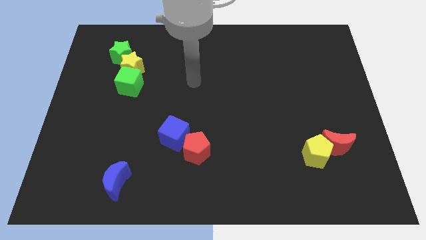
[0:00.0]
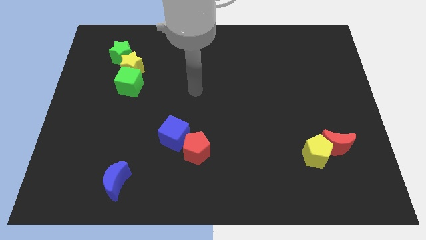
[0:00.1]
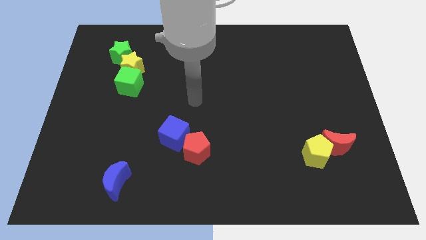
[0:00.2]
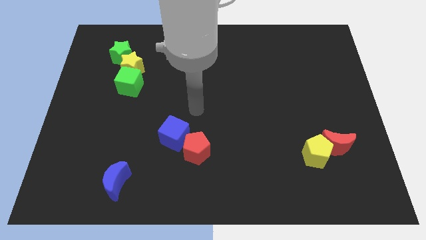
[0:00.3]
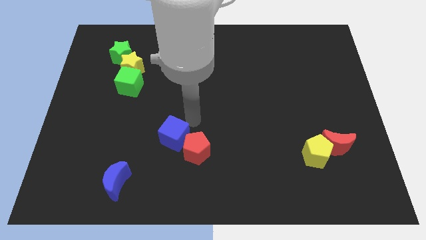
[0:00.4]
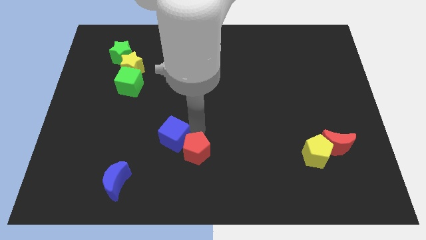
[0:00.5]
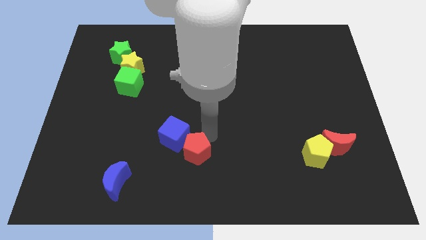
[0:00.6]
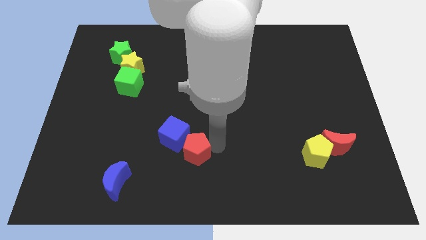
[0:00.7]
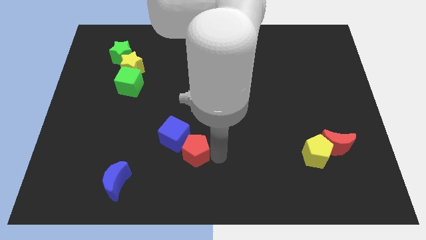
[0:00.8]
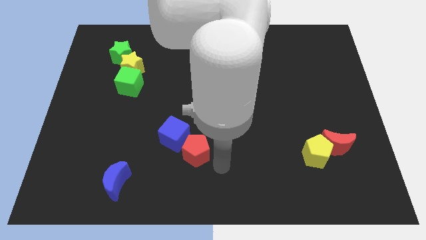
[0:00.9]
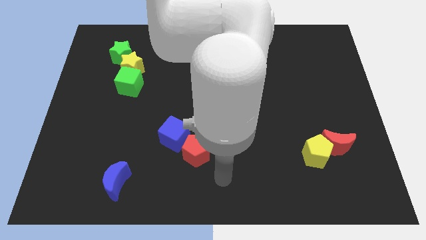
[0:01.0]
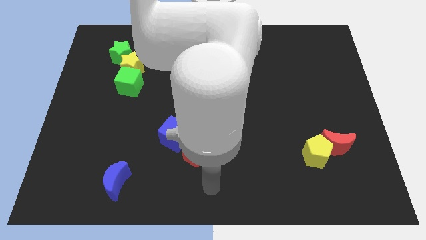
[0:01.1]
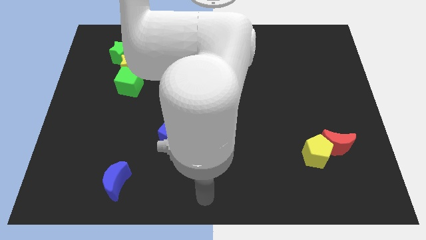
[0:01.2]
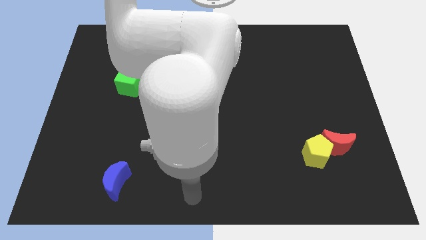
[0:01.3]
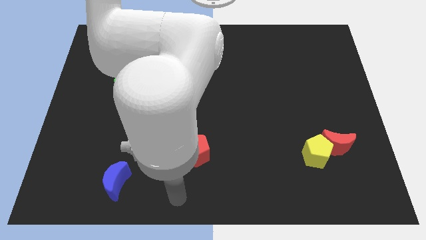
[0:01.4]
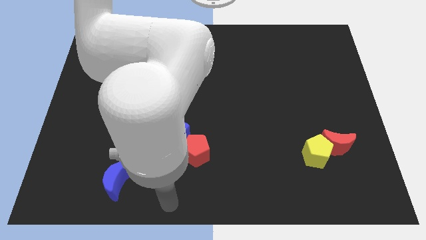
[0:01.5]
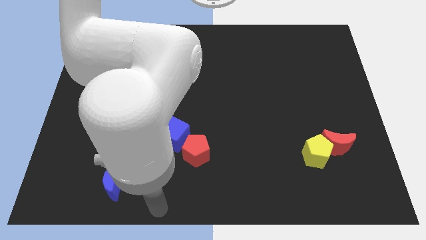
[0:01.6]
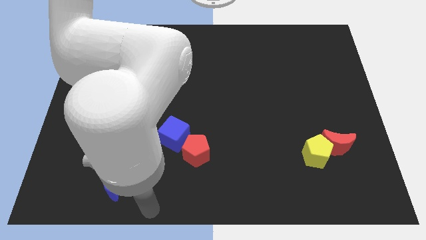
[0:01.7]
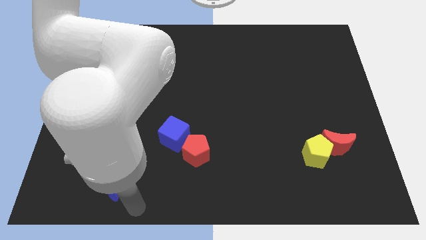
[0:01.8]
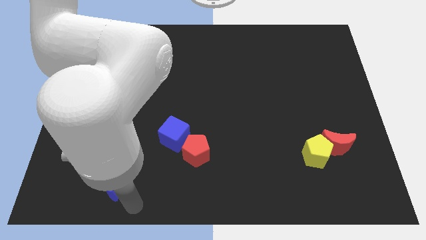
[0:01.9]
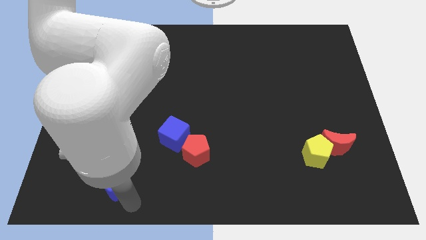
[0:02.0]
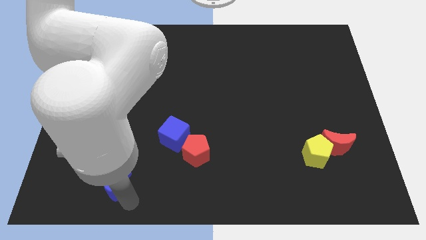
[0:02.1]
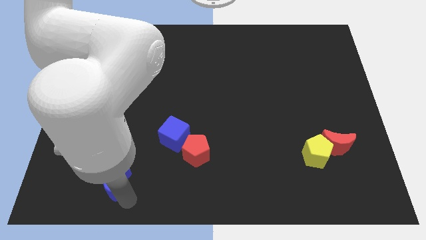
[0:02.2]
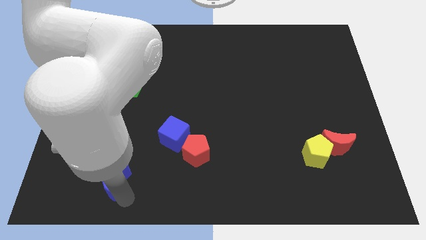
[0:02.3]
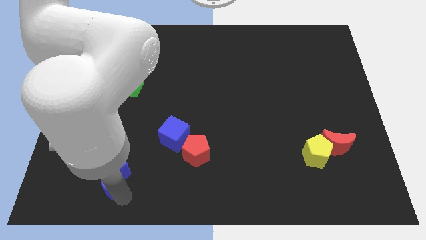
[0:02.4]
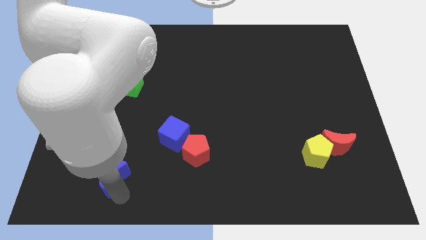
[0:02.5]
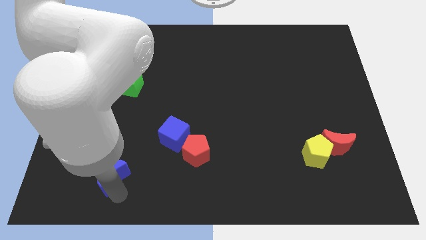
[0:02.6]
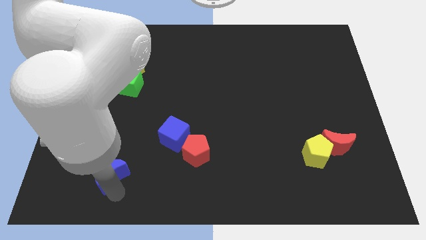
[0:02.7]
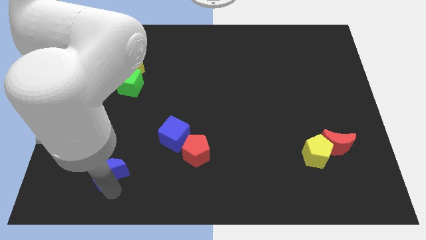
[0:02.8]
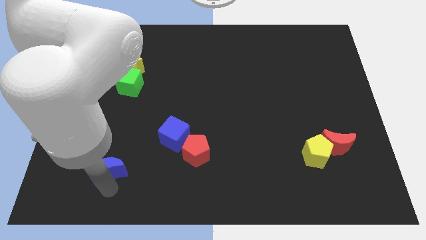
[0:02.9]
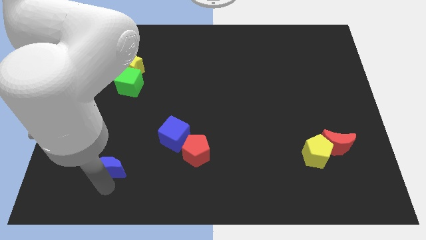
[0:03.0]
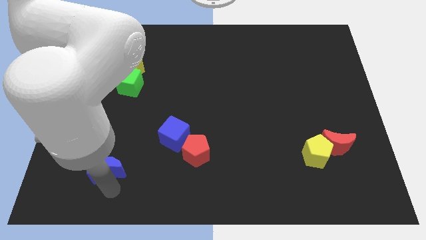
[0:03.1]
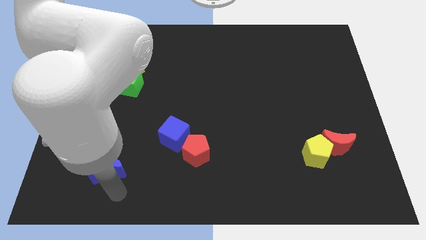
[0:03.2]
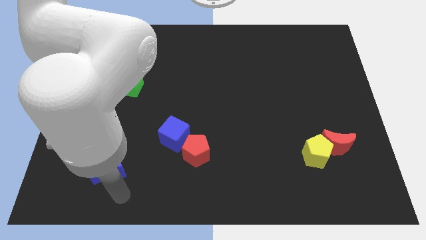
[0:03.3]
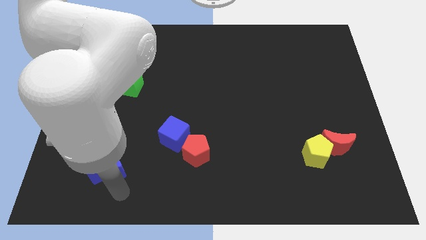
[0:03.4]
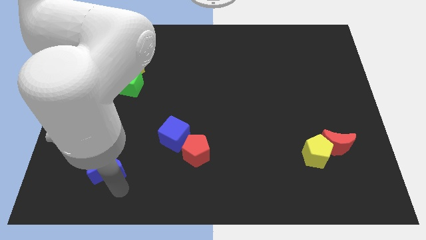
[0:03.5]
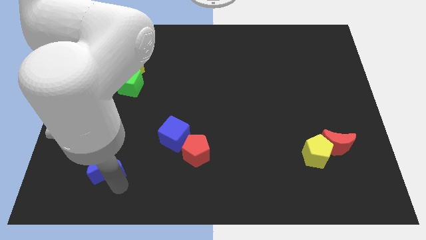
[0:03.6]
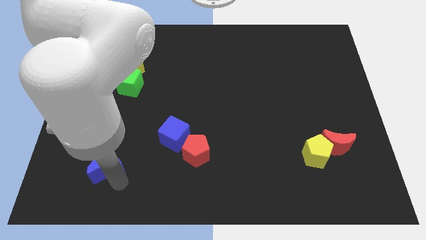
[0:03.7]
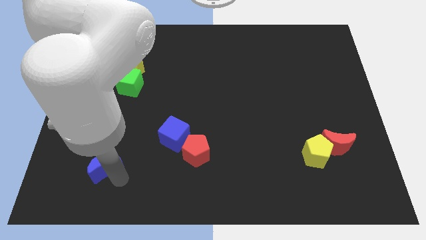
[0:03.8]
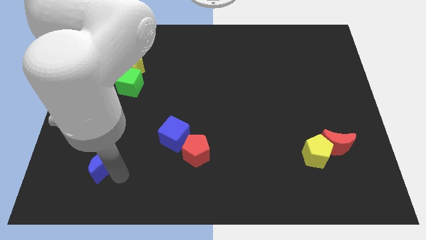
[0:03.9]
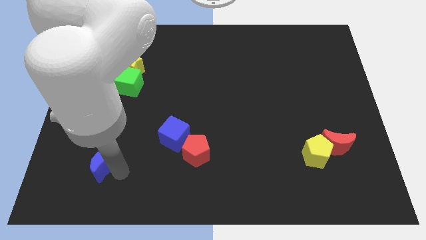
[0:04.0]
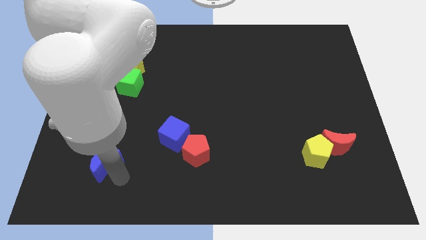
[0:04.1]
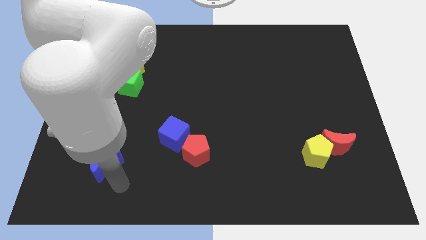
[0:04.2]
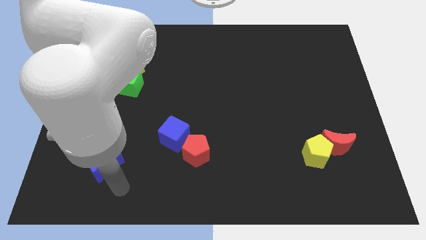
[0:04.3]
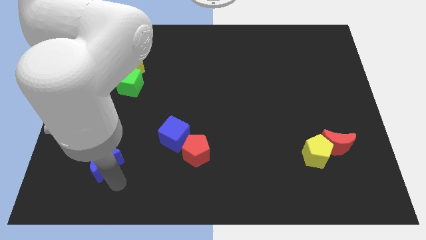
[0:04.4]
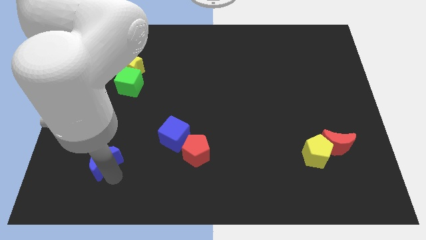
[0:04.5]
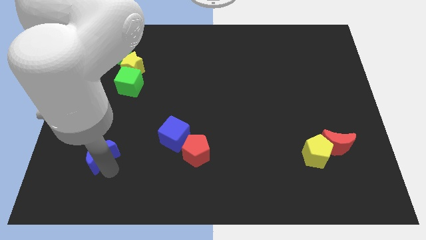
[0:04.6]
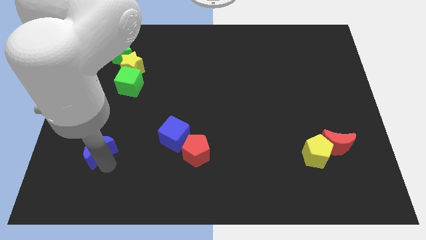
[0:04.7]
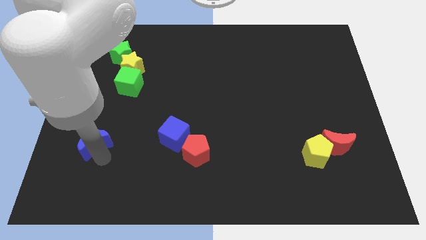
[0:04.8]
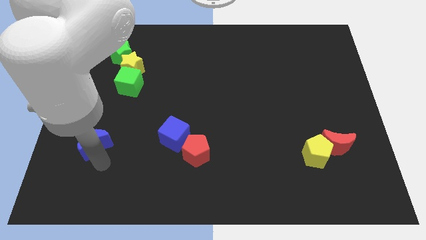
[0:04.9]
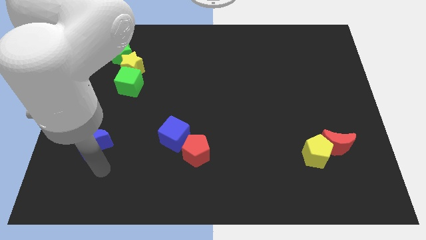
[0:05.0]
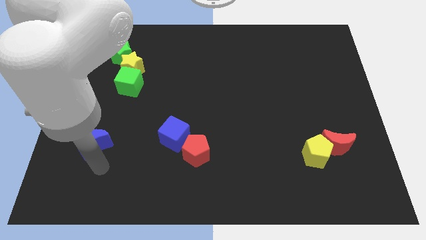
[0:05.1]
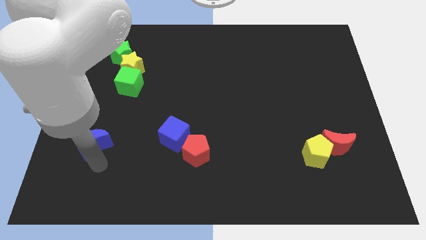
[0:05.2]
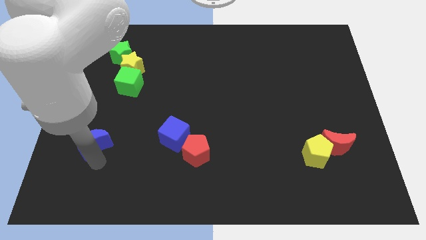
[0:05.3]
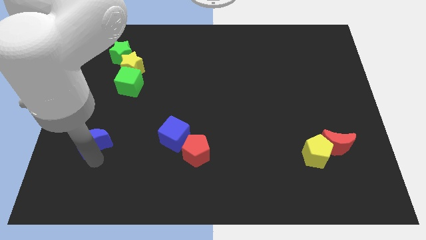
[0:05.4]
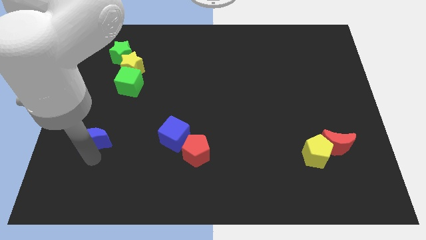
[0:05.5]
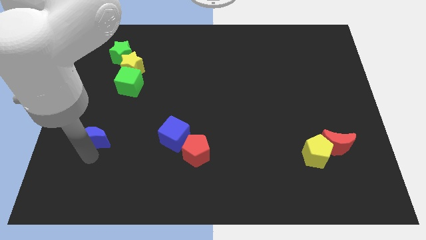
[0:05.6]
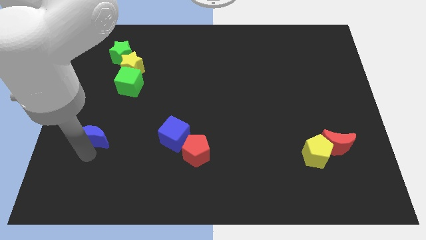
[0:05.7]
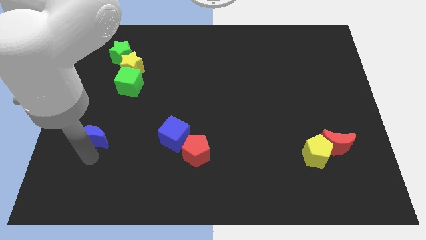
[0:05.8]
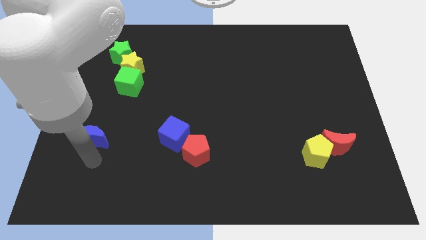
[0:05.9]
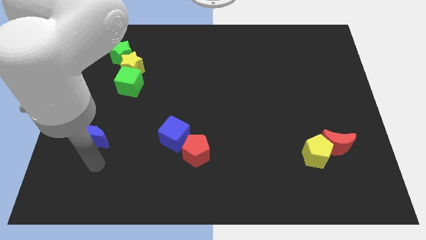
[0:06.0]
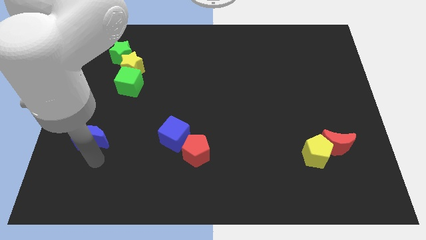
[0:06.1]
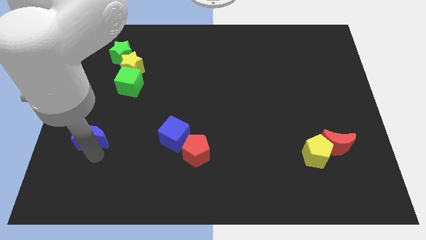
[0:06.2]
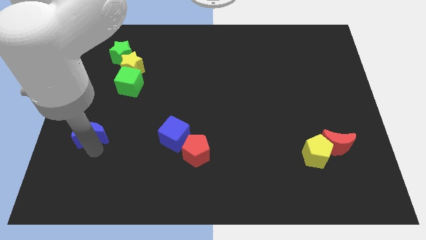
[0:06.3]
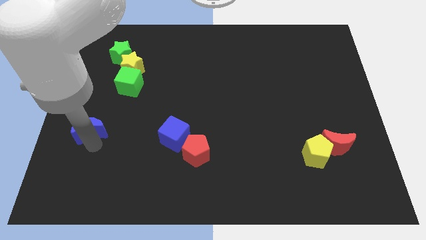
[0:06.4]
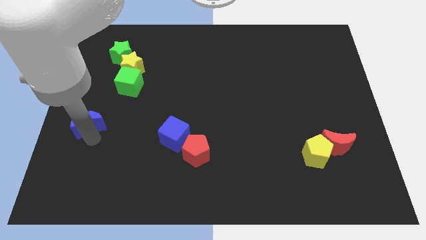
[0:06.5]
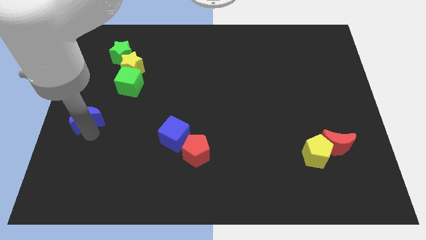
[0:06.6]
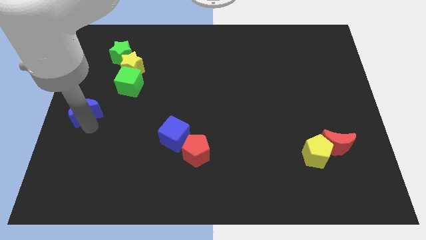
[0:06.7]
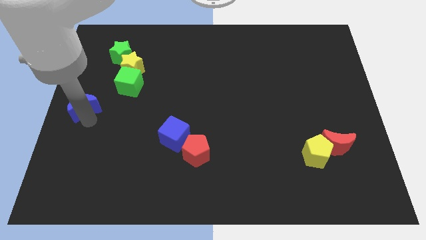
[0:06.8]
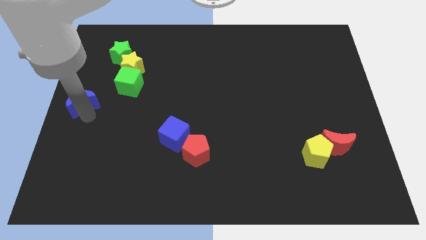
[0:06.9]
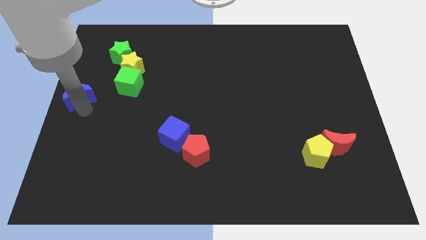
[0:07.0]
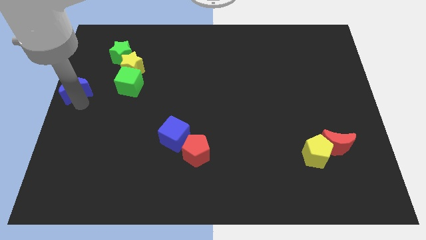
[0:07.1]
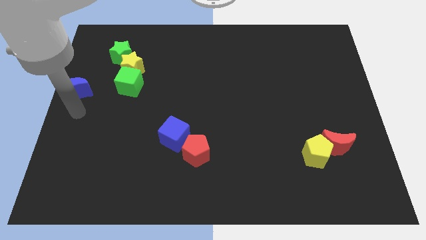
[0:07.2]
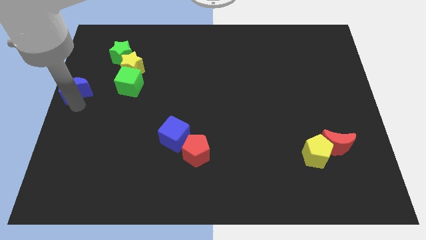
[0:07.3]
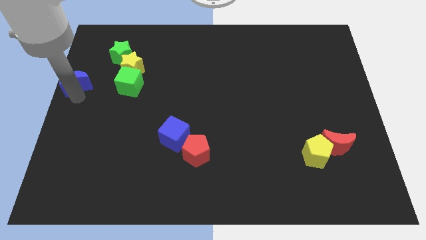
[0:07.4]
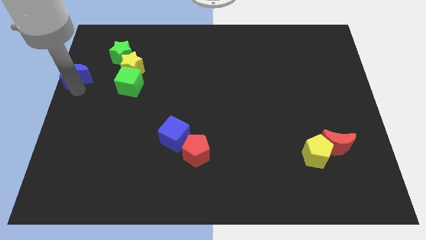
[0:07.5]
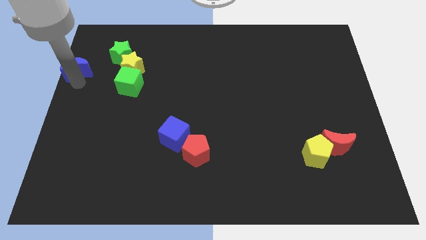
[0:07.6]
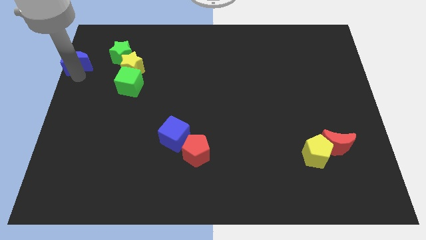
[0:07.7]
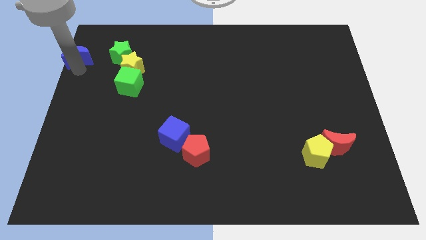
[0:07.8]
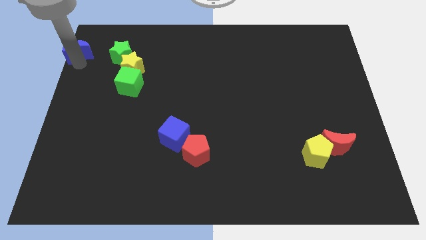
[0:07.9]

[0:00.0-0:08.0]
move the blue moon to the top left
